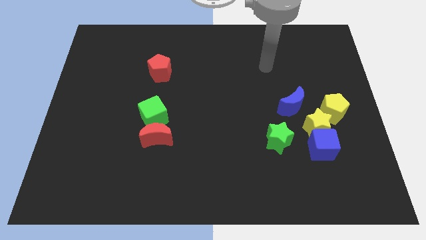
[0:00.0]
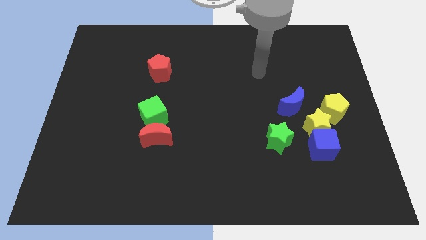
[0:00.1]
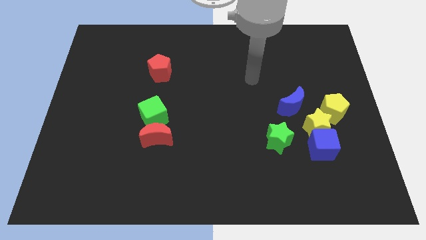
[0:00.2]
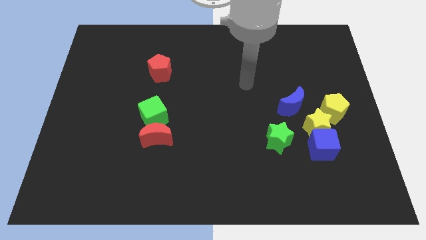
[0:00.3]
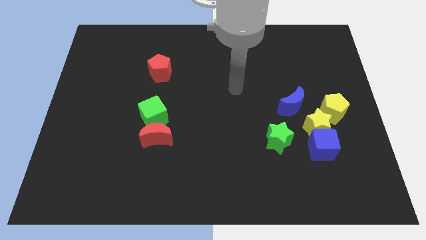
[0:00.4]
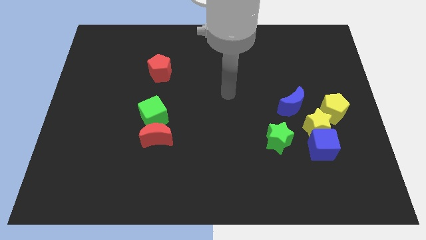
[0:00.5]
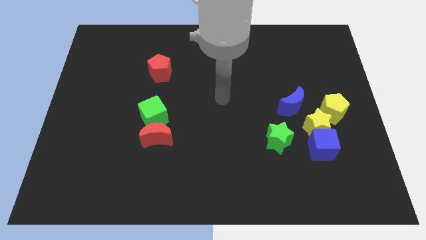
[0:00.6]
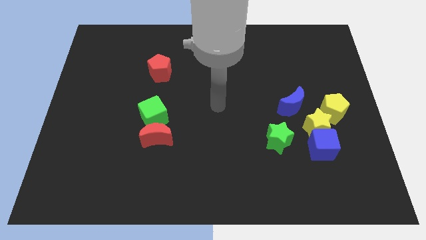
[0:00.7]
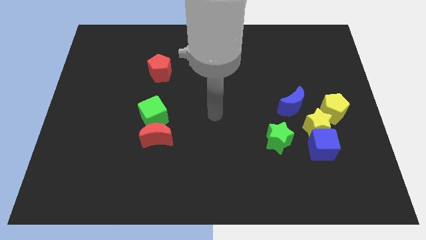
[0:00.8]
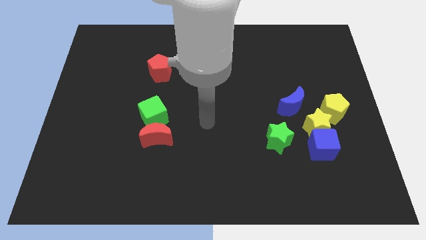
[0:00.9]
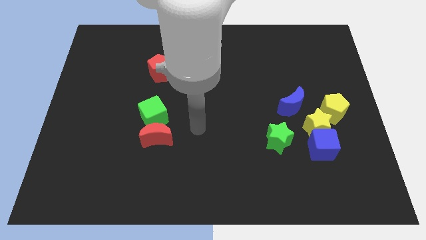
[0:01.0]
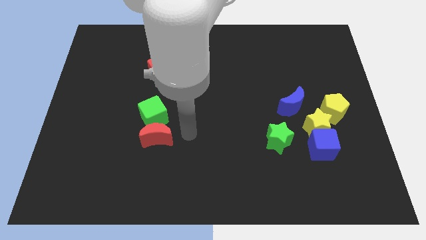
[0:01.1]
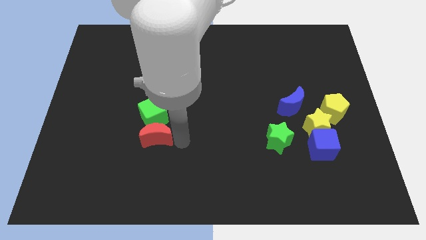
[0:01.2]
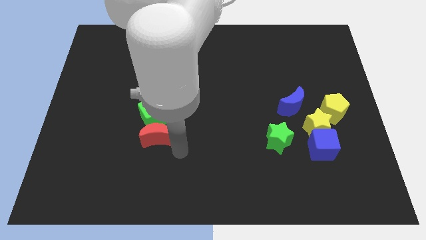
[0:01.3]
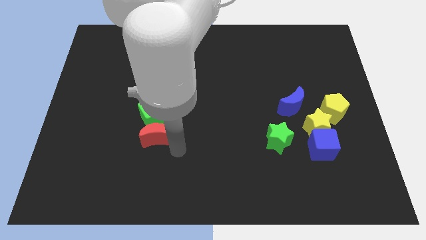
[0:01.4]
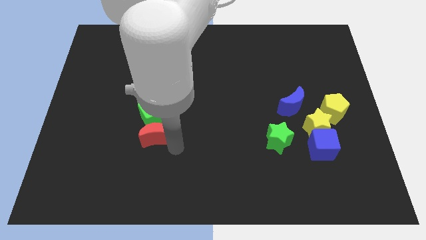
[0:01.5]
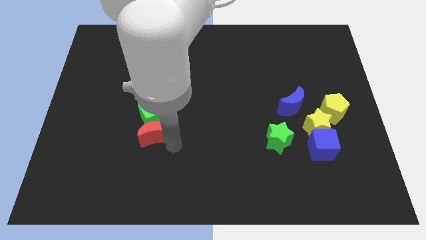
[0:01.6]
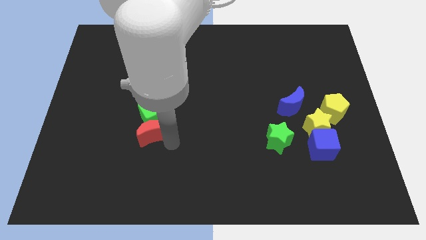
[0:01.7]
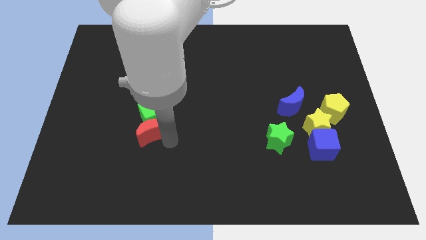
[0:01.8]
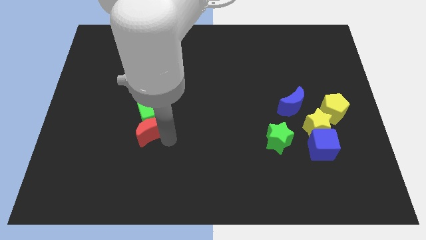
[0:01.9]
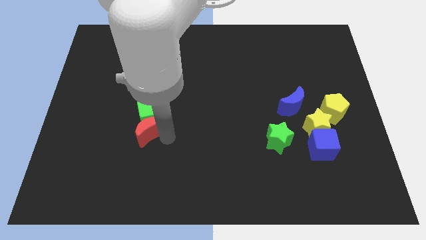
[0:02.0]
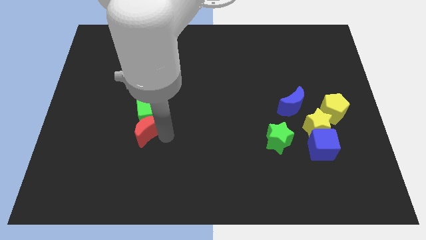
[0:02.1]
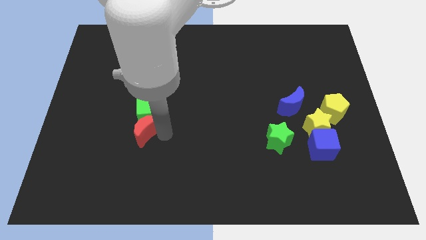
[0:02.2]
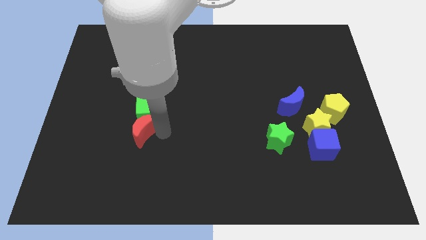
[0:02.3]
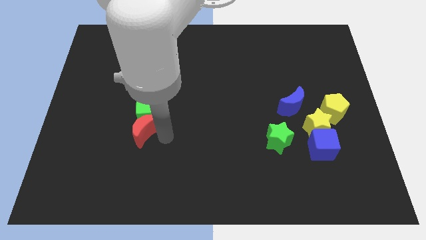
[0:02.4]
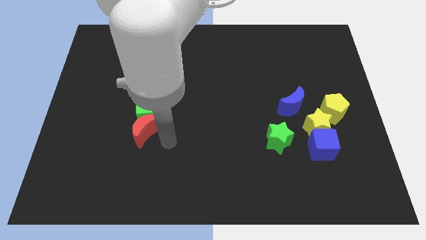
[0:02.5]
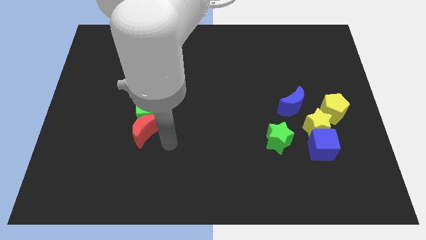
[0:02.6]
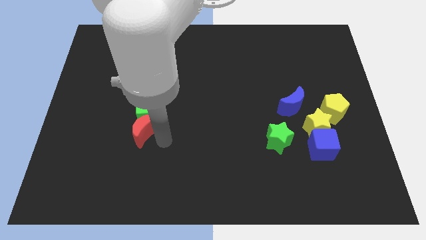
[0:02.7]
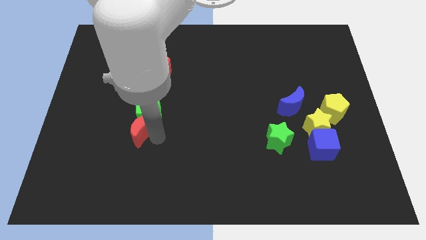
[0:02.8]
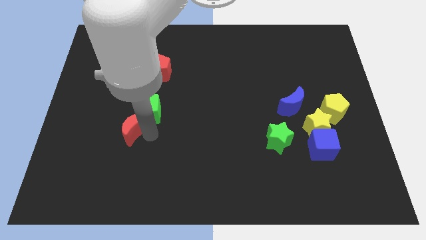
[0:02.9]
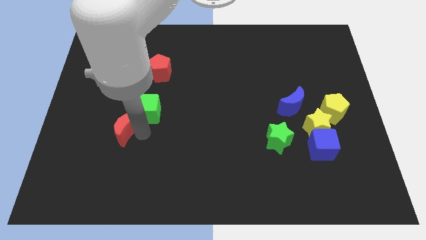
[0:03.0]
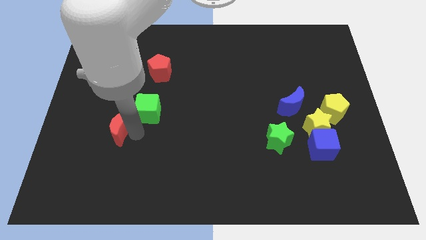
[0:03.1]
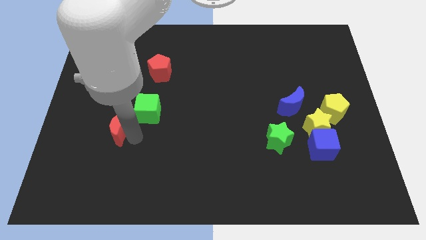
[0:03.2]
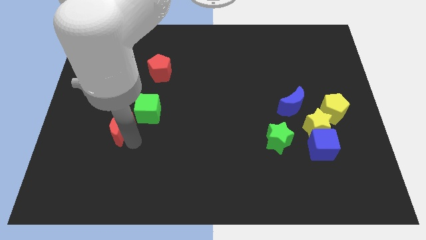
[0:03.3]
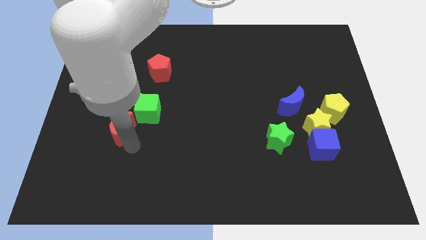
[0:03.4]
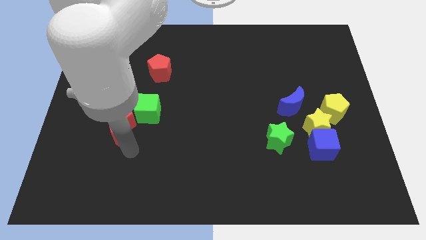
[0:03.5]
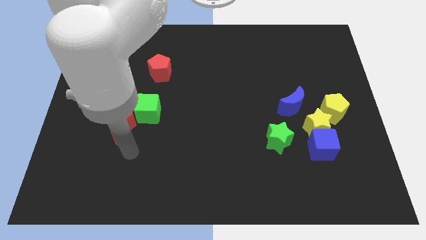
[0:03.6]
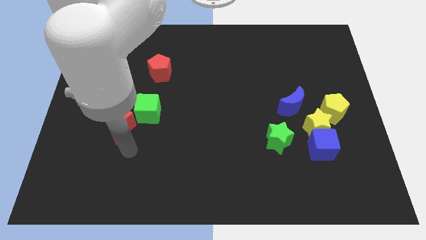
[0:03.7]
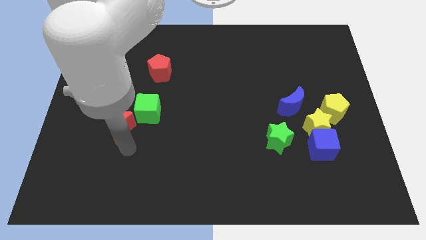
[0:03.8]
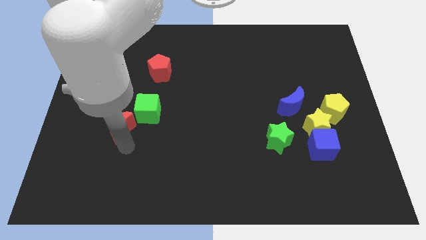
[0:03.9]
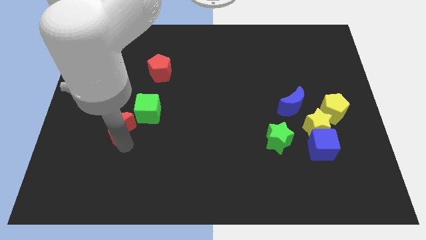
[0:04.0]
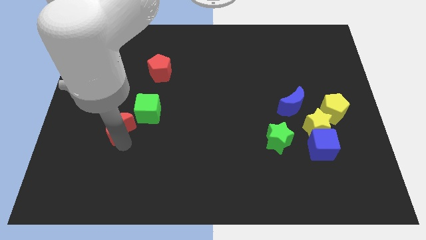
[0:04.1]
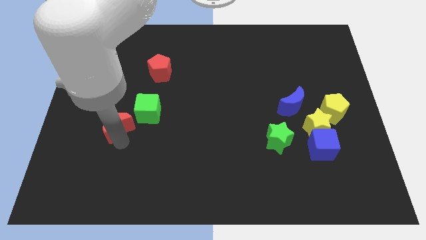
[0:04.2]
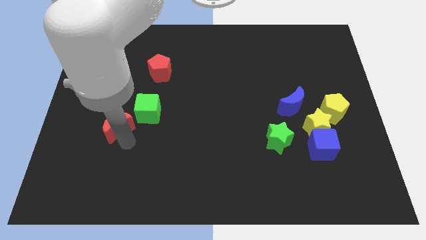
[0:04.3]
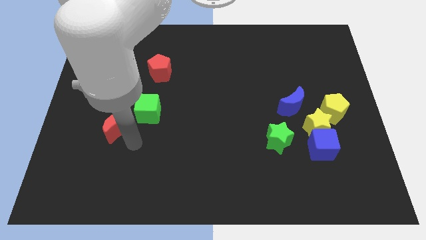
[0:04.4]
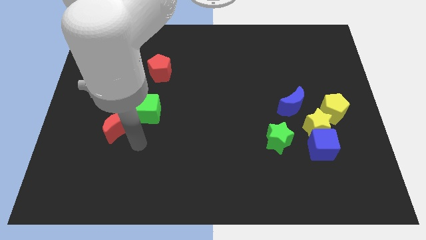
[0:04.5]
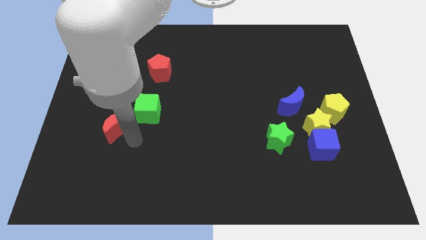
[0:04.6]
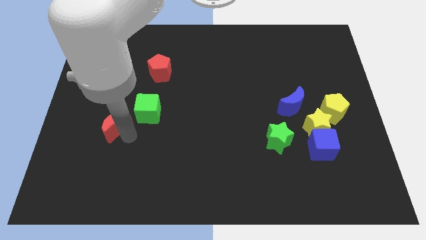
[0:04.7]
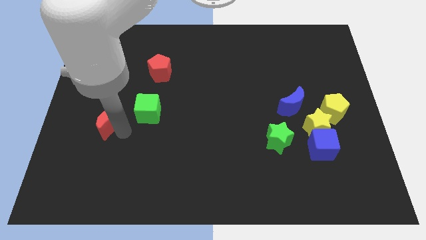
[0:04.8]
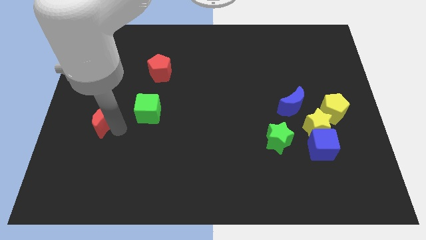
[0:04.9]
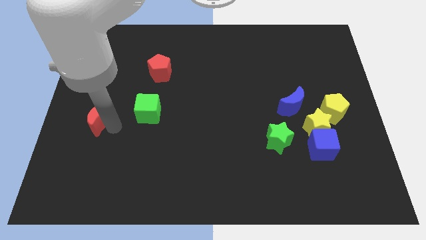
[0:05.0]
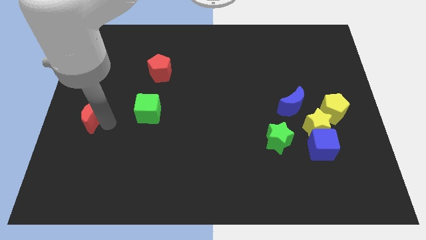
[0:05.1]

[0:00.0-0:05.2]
slide the red moon to the left side
